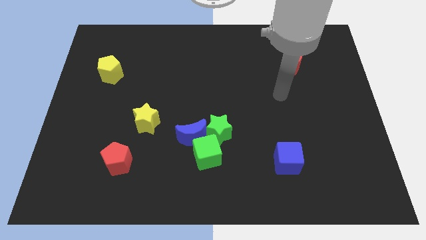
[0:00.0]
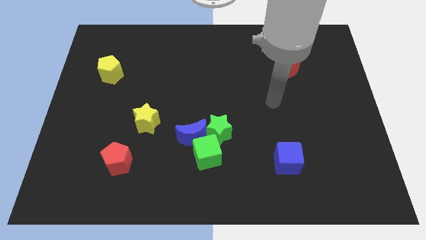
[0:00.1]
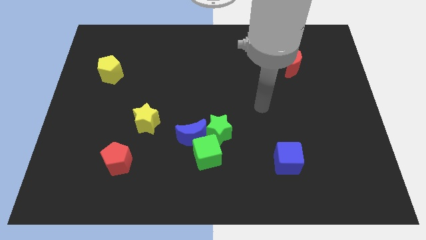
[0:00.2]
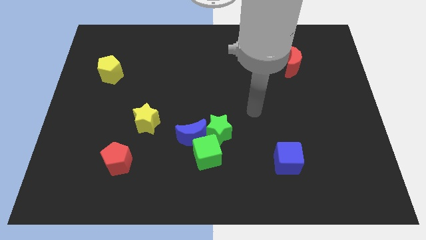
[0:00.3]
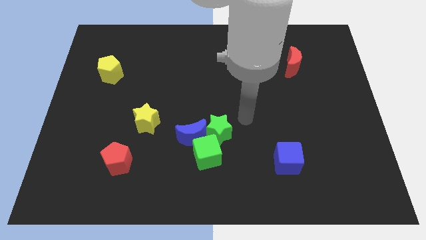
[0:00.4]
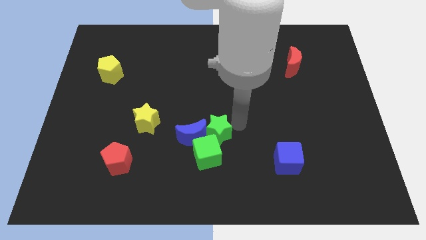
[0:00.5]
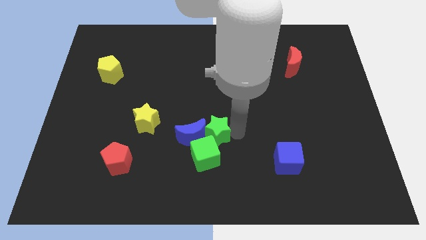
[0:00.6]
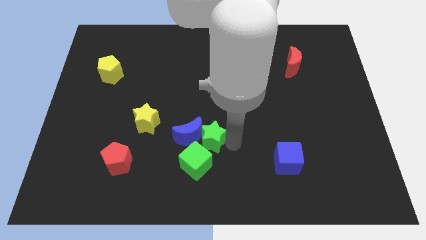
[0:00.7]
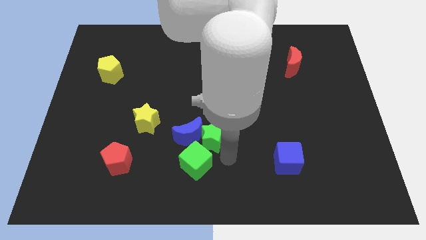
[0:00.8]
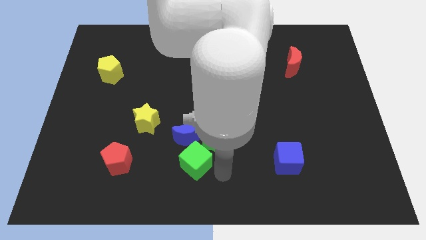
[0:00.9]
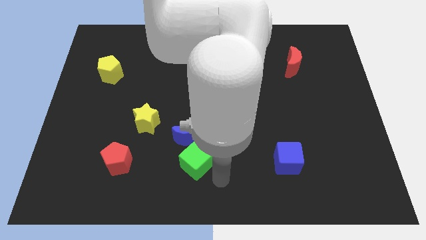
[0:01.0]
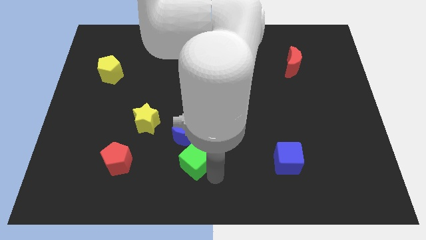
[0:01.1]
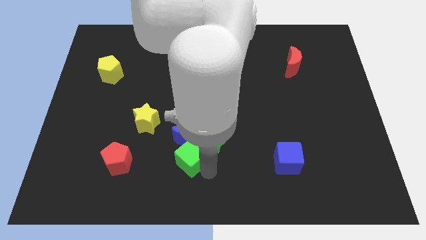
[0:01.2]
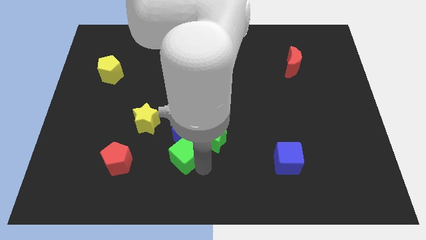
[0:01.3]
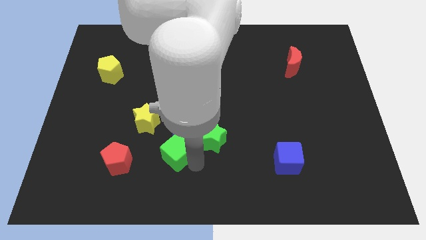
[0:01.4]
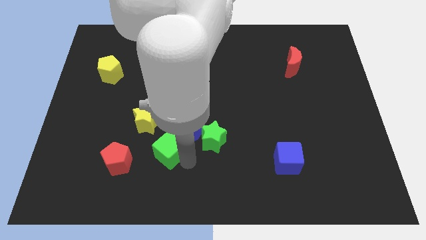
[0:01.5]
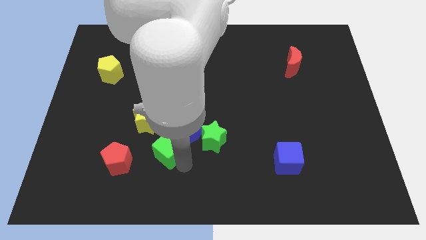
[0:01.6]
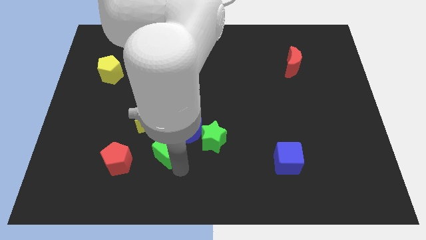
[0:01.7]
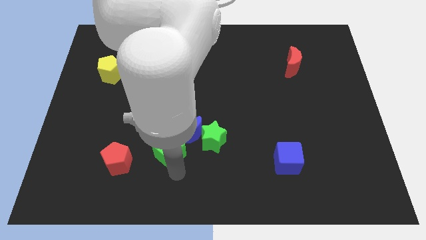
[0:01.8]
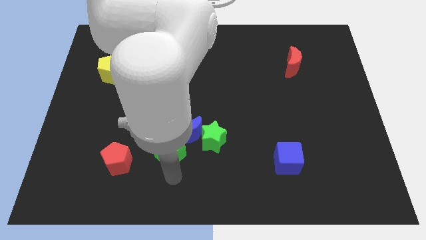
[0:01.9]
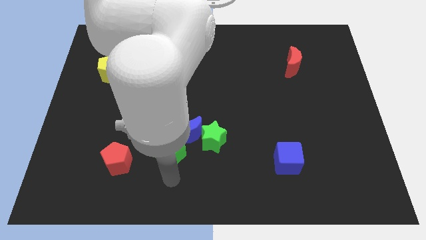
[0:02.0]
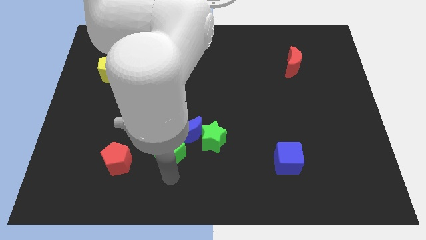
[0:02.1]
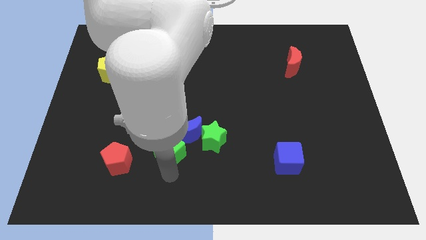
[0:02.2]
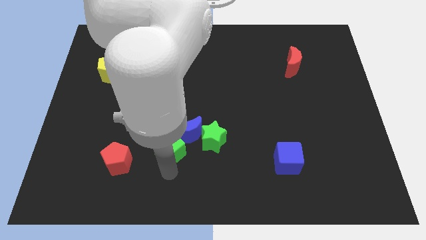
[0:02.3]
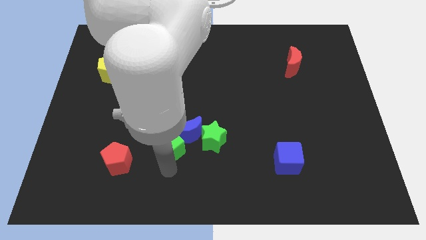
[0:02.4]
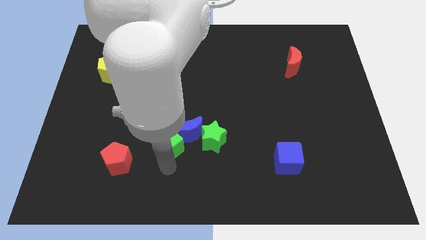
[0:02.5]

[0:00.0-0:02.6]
move the green cube upwards and left slightly

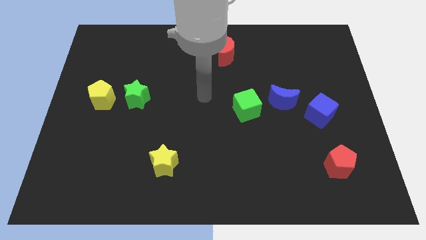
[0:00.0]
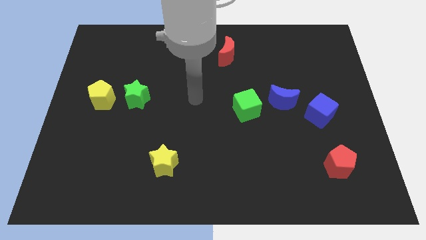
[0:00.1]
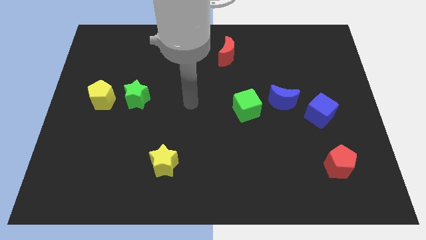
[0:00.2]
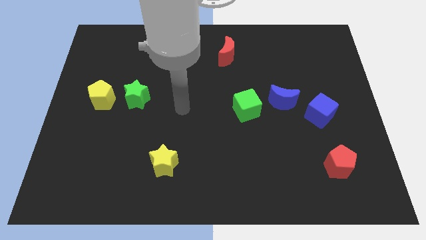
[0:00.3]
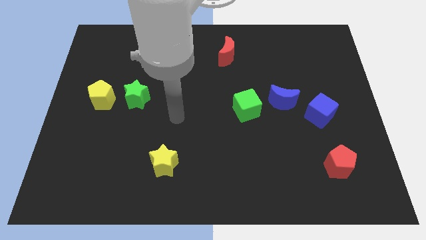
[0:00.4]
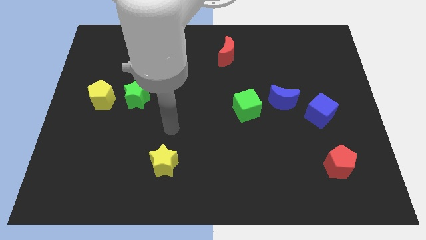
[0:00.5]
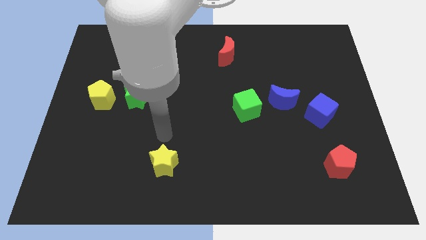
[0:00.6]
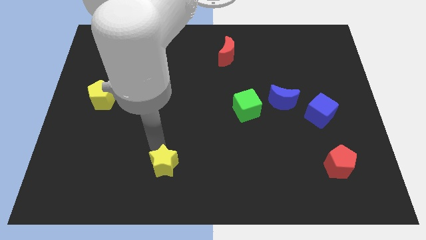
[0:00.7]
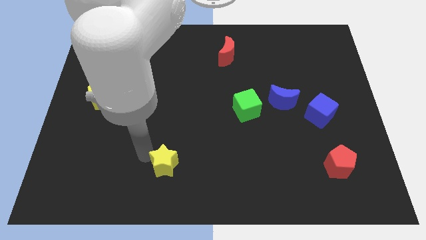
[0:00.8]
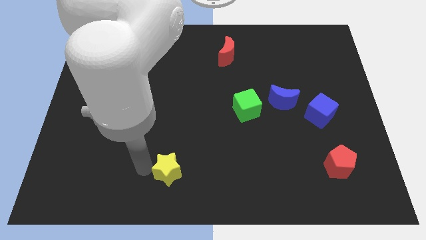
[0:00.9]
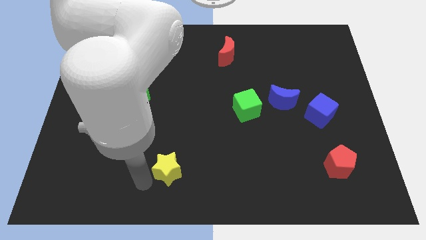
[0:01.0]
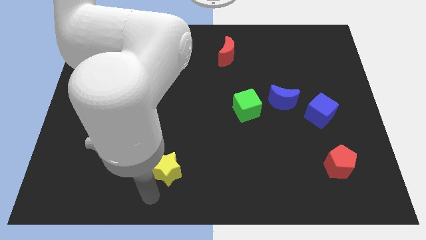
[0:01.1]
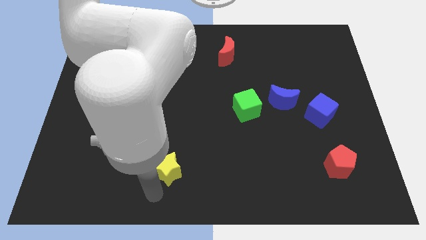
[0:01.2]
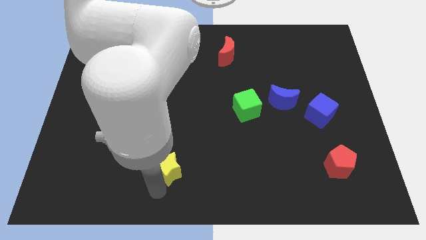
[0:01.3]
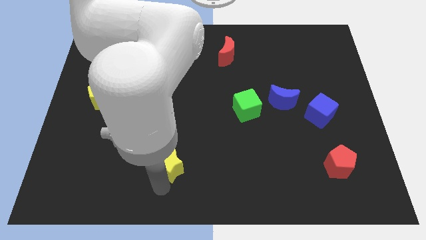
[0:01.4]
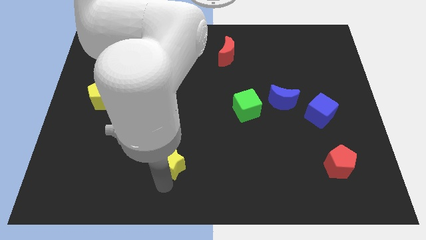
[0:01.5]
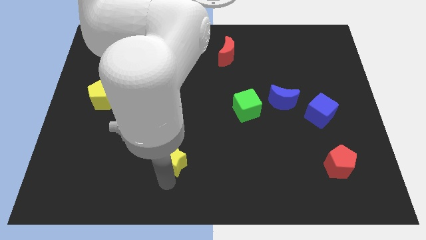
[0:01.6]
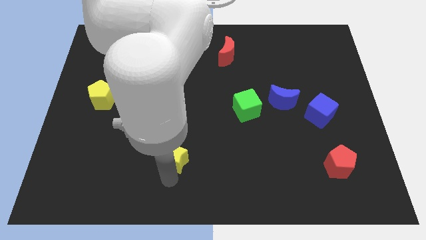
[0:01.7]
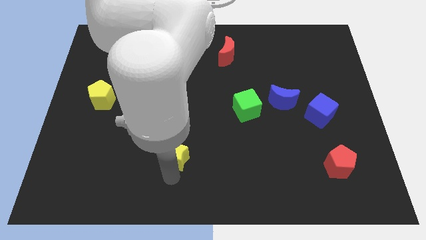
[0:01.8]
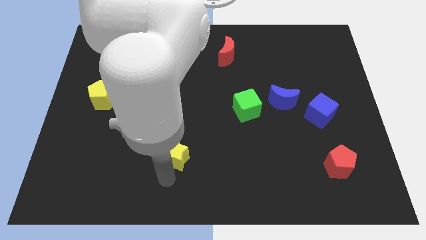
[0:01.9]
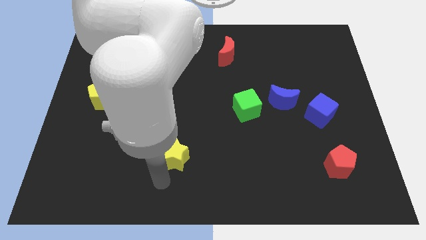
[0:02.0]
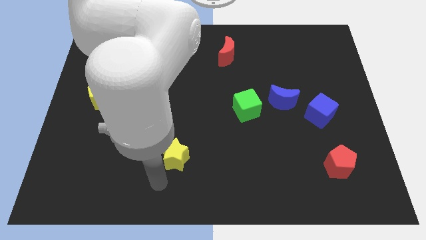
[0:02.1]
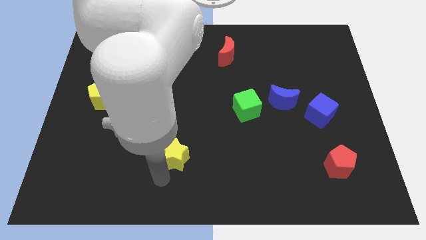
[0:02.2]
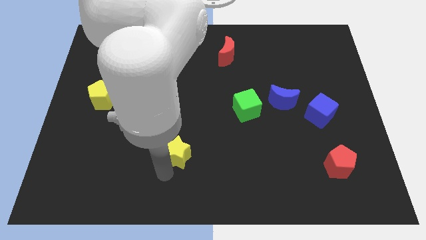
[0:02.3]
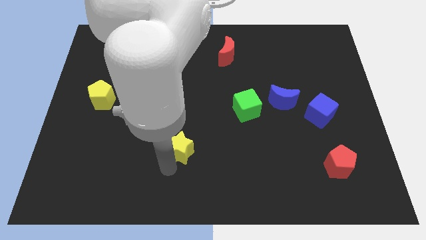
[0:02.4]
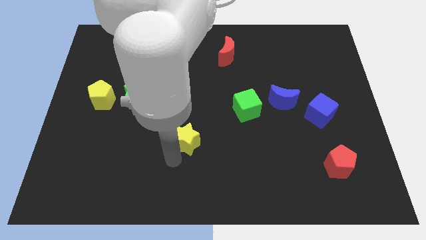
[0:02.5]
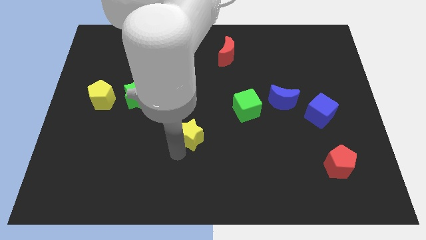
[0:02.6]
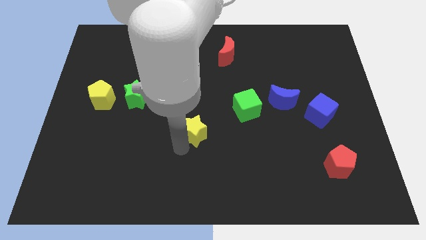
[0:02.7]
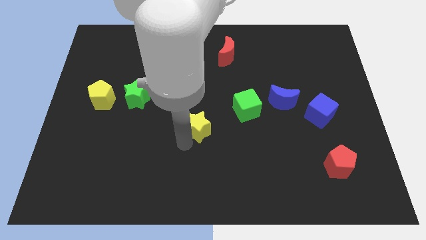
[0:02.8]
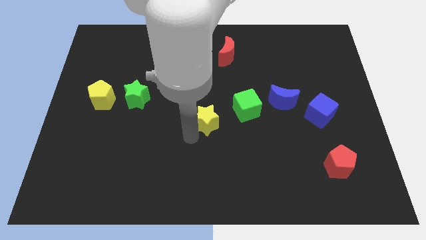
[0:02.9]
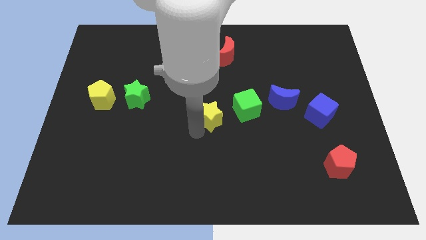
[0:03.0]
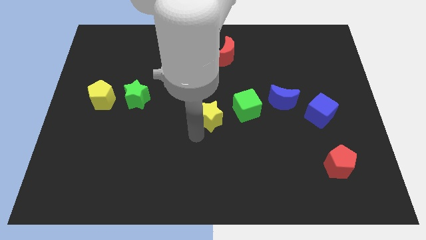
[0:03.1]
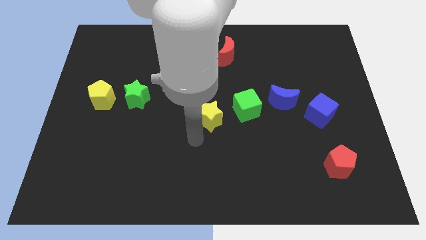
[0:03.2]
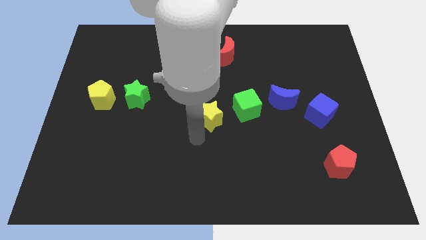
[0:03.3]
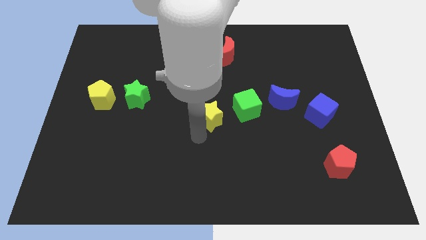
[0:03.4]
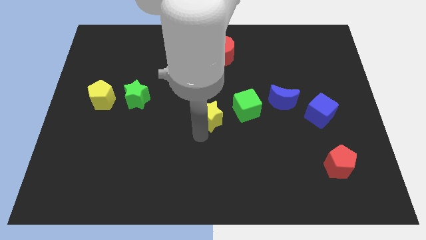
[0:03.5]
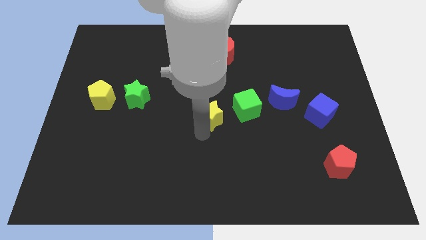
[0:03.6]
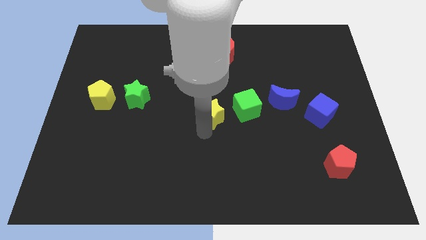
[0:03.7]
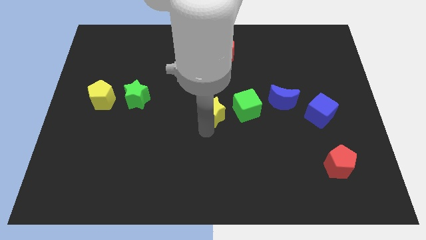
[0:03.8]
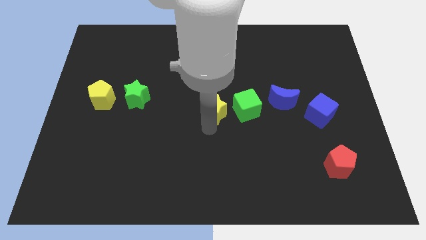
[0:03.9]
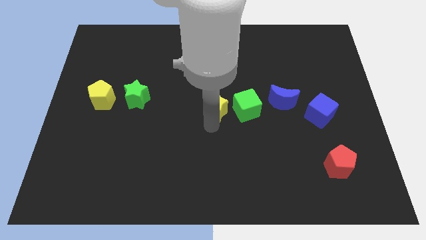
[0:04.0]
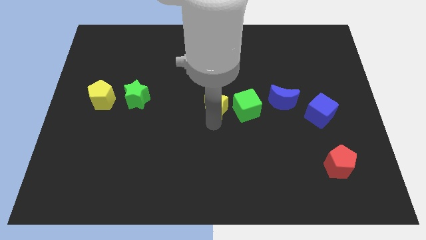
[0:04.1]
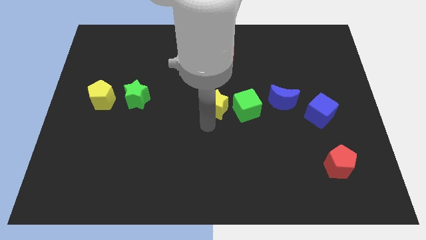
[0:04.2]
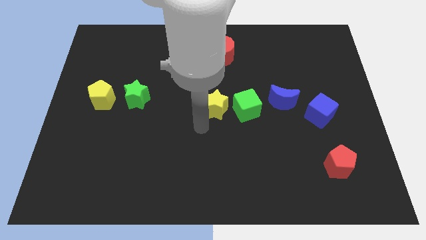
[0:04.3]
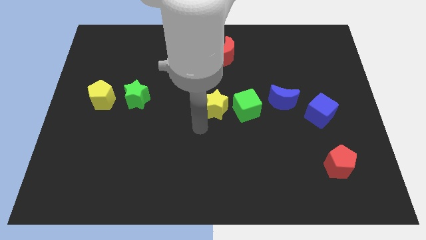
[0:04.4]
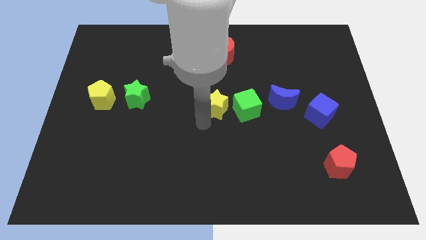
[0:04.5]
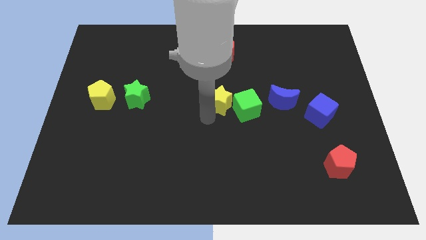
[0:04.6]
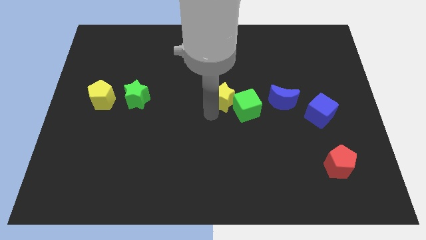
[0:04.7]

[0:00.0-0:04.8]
slide the yellow star diagonally up and right

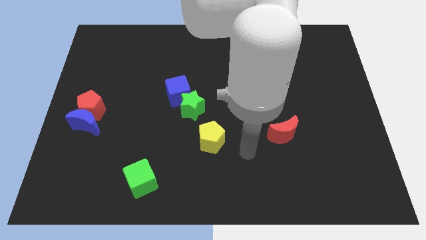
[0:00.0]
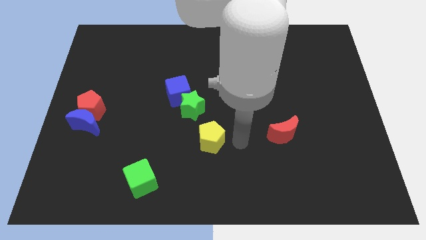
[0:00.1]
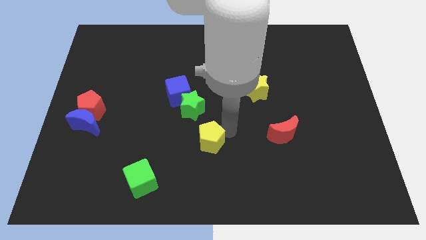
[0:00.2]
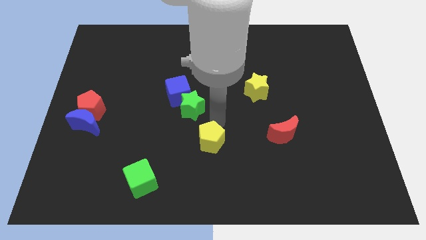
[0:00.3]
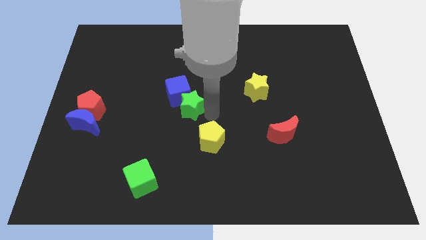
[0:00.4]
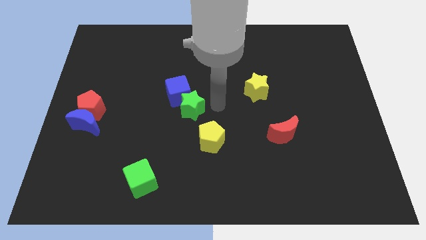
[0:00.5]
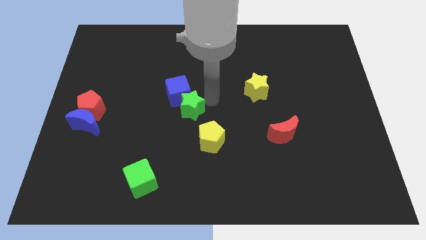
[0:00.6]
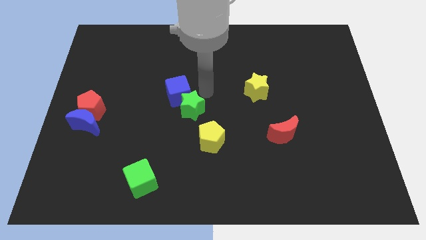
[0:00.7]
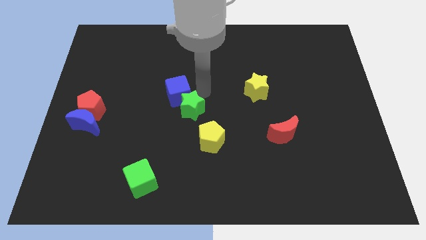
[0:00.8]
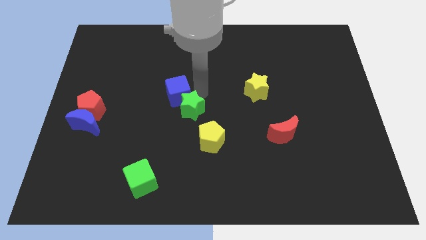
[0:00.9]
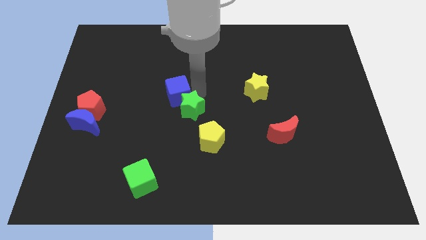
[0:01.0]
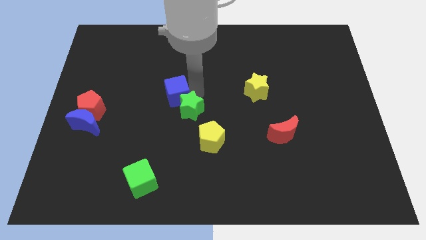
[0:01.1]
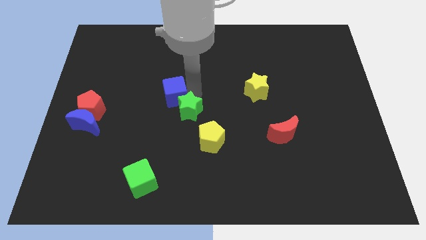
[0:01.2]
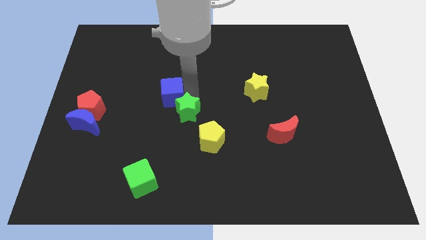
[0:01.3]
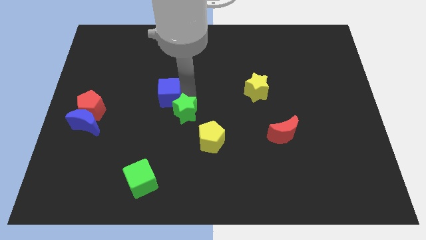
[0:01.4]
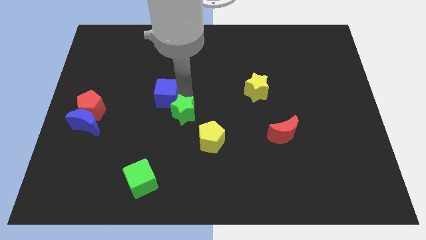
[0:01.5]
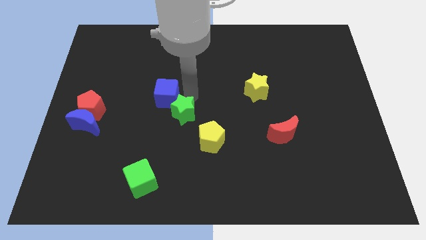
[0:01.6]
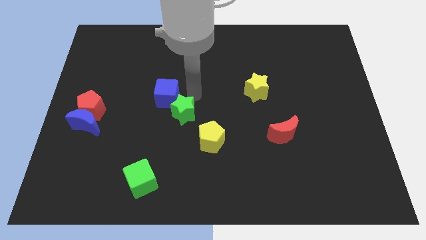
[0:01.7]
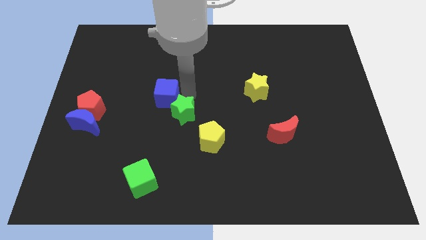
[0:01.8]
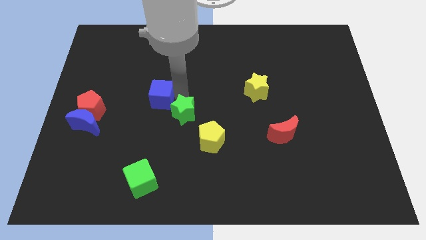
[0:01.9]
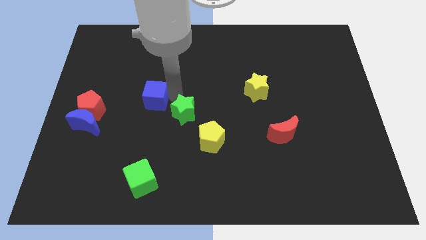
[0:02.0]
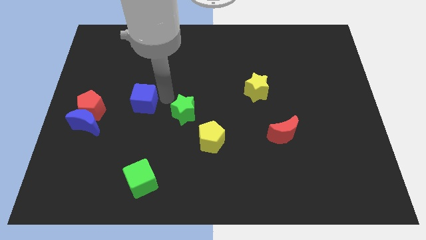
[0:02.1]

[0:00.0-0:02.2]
move the blue cube left somewhat
